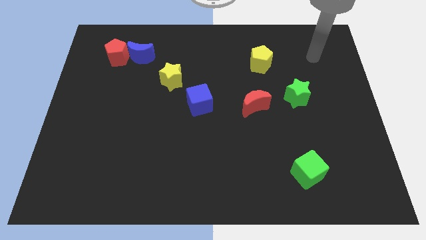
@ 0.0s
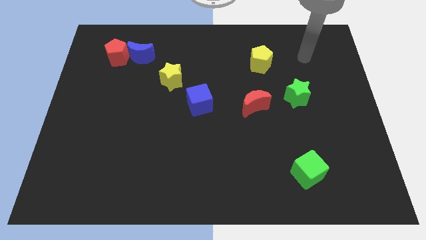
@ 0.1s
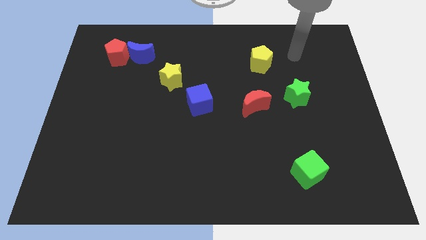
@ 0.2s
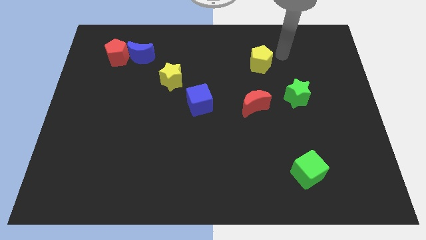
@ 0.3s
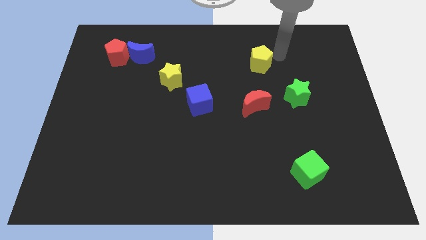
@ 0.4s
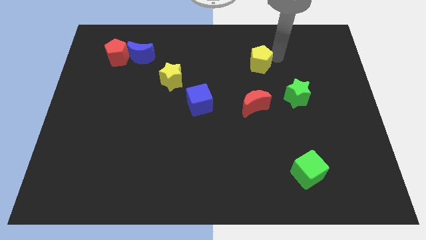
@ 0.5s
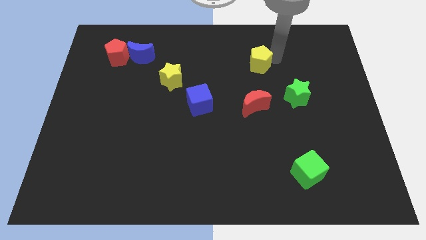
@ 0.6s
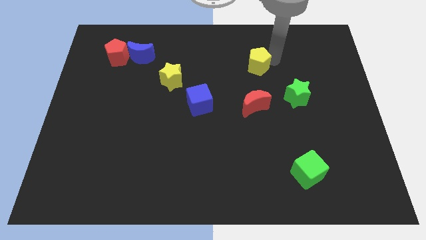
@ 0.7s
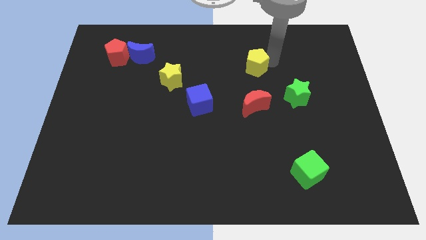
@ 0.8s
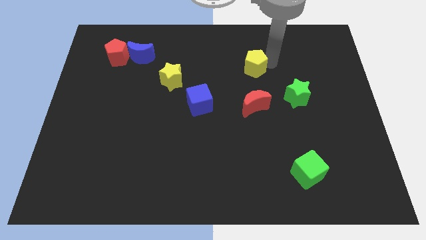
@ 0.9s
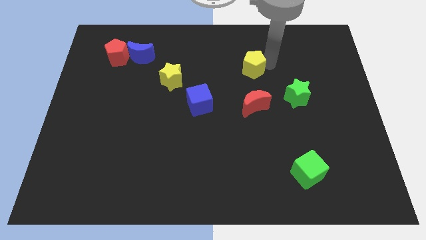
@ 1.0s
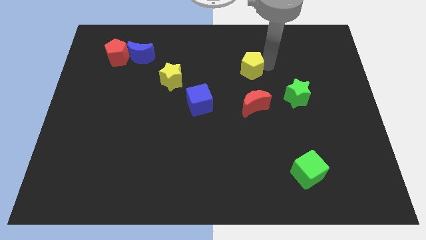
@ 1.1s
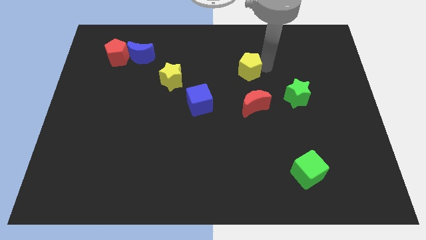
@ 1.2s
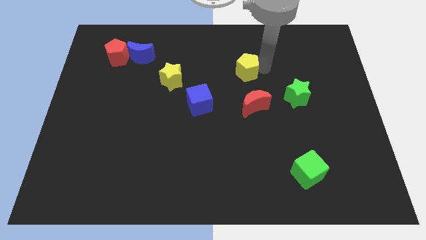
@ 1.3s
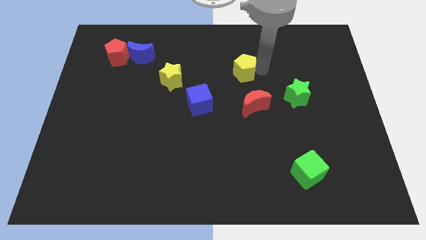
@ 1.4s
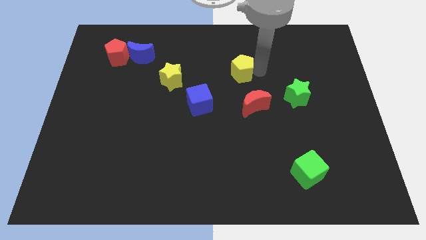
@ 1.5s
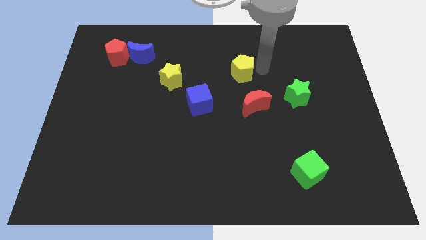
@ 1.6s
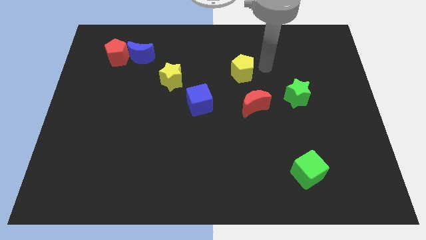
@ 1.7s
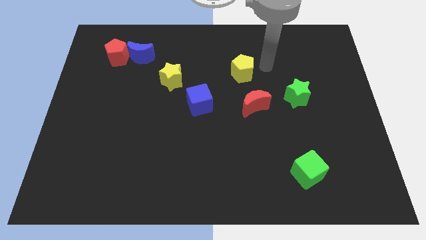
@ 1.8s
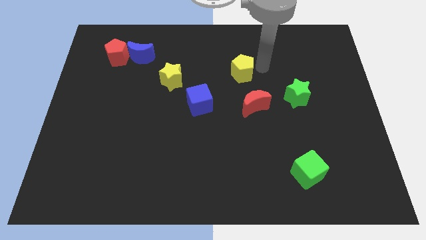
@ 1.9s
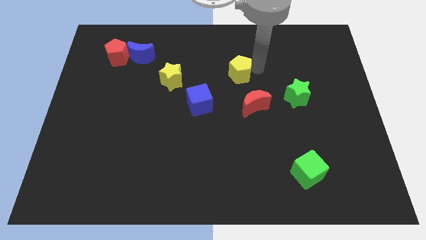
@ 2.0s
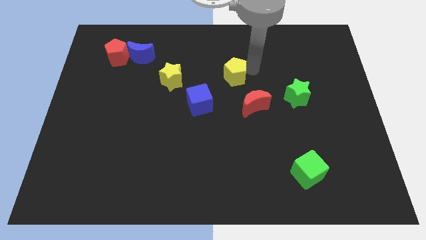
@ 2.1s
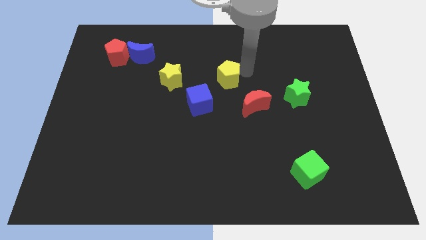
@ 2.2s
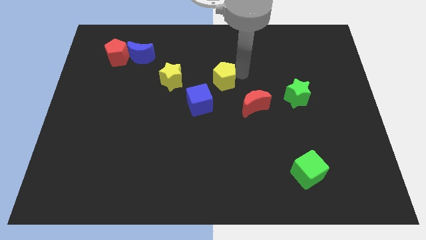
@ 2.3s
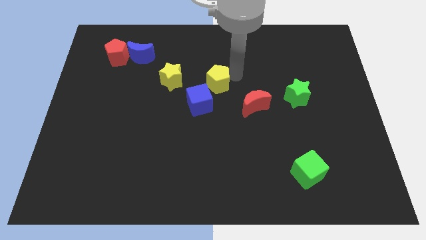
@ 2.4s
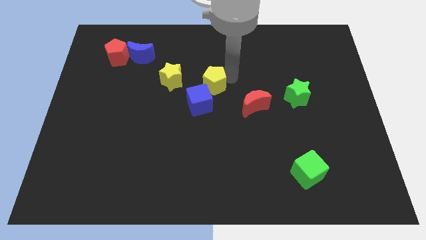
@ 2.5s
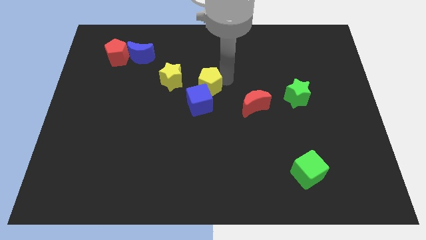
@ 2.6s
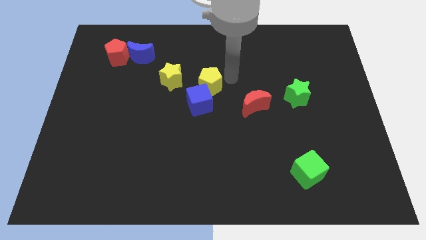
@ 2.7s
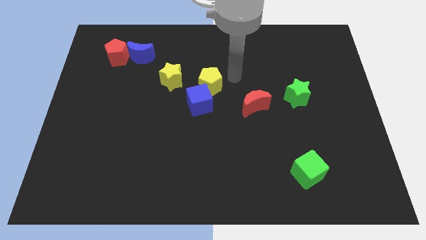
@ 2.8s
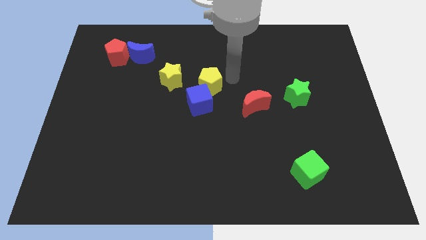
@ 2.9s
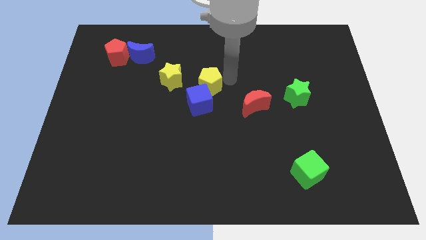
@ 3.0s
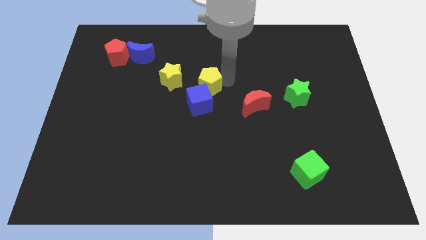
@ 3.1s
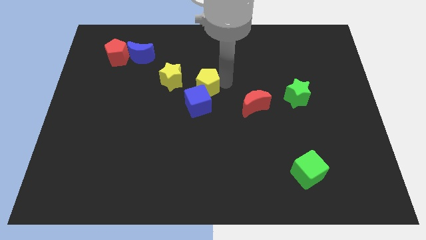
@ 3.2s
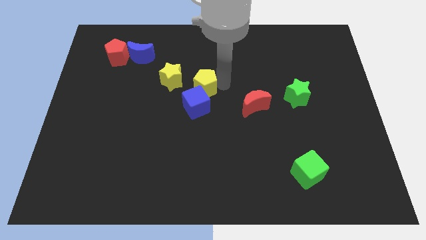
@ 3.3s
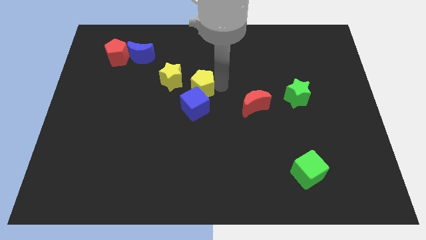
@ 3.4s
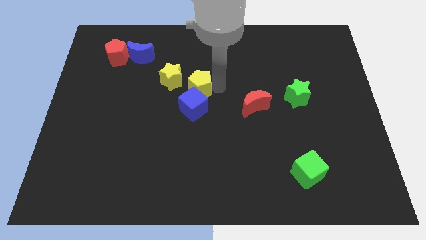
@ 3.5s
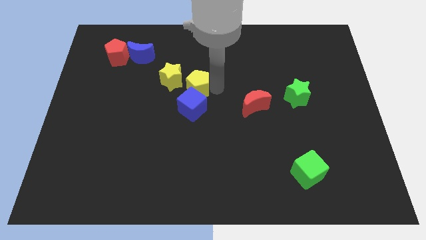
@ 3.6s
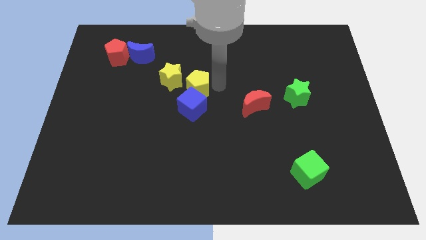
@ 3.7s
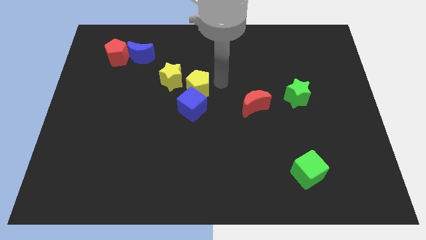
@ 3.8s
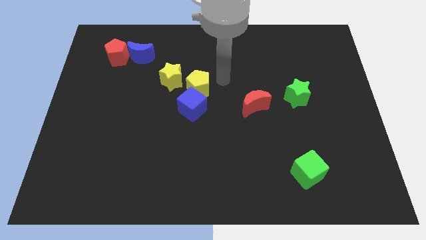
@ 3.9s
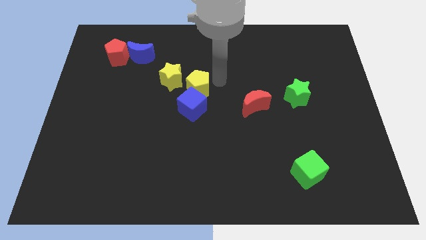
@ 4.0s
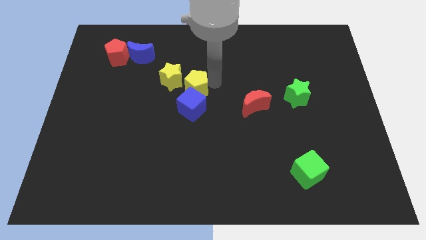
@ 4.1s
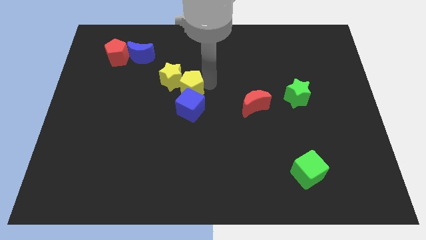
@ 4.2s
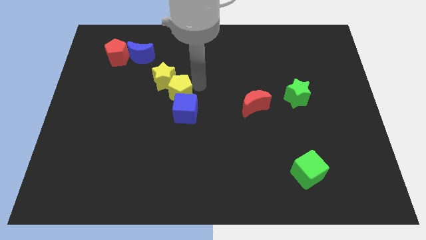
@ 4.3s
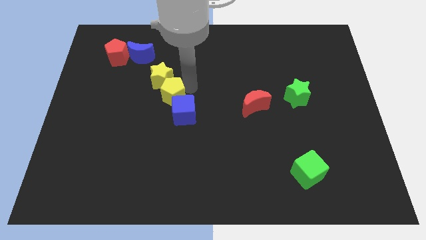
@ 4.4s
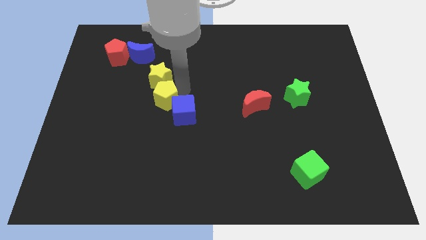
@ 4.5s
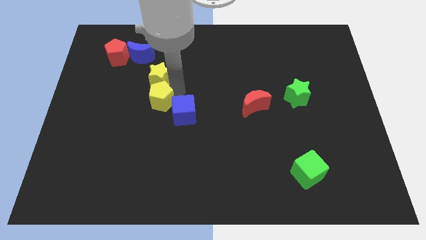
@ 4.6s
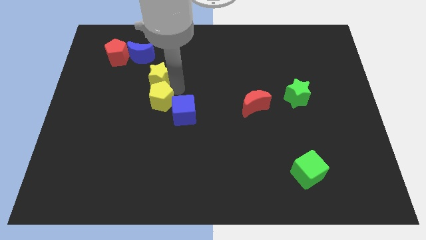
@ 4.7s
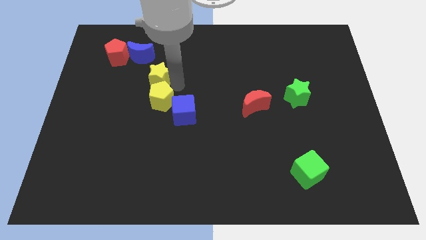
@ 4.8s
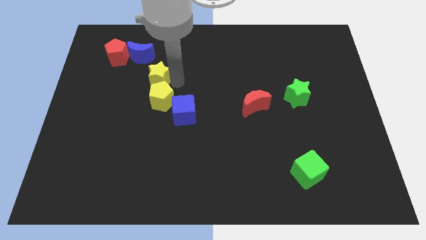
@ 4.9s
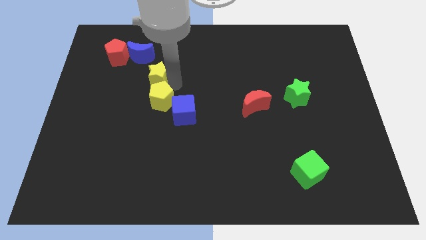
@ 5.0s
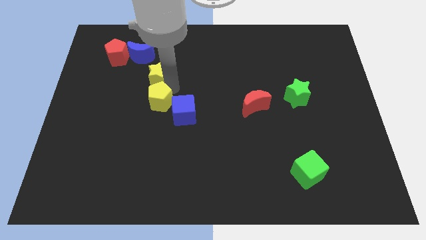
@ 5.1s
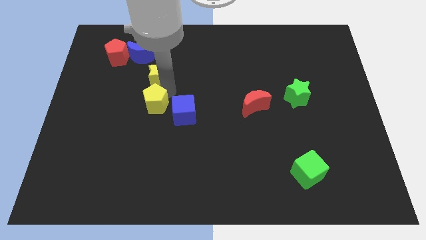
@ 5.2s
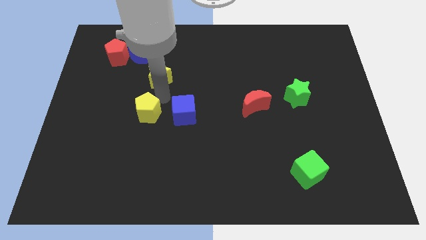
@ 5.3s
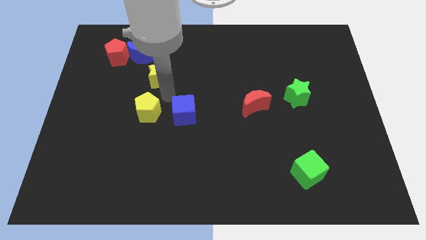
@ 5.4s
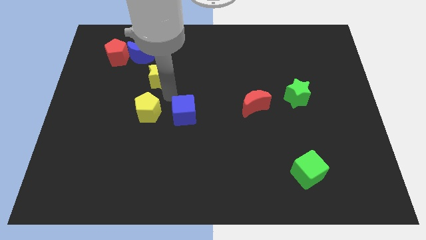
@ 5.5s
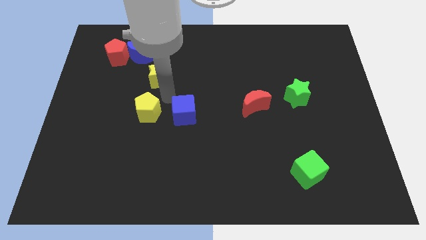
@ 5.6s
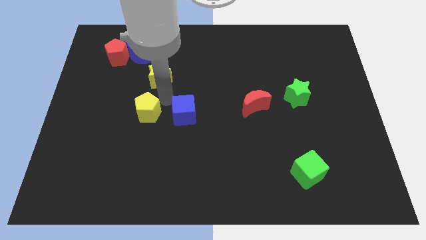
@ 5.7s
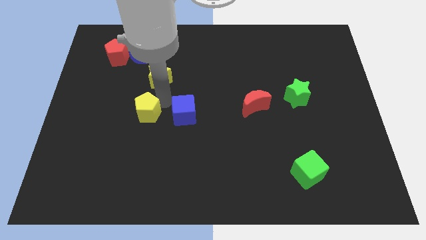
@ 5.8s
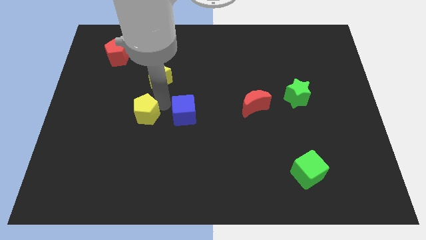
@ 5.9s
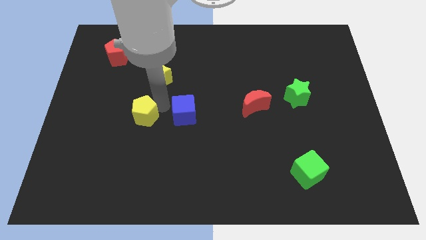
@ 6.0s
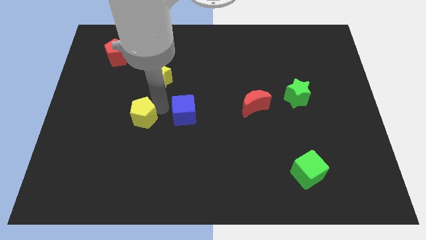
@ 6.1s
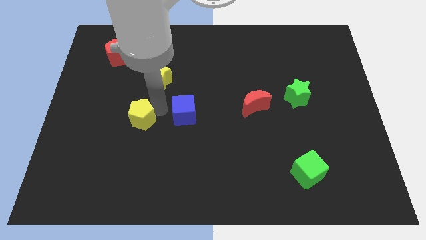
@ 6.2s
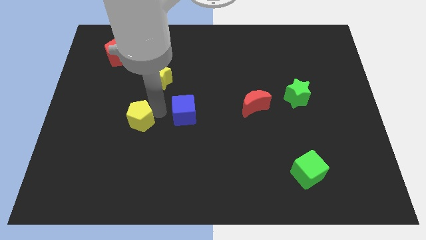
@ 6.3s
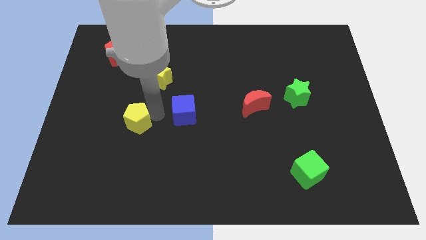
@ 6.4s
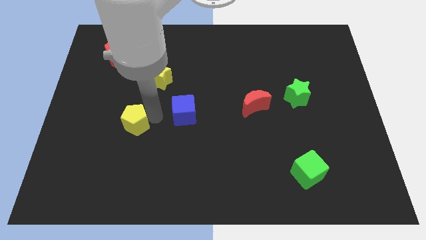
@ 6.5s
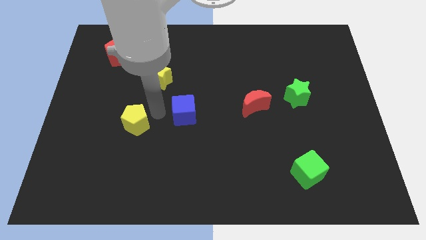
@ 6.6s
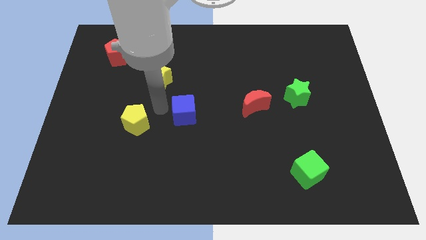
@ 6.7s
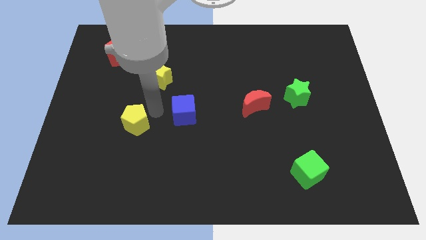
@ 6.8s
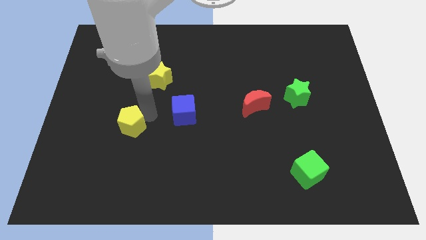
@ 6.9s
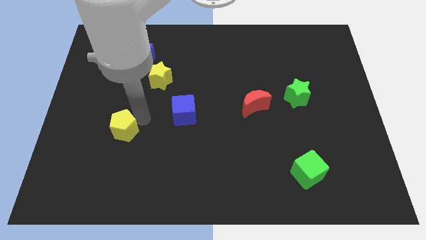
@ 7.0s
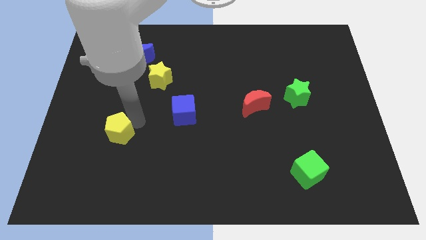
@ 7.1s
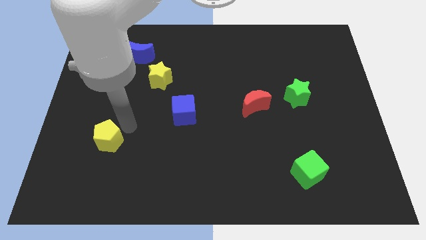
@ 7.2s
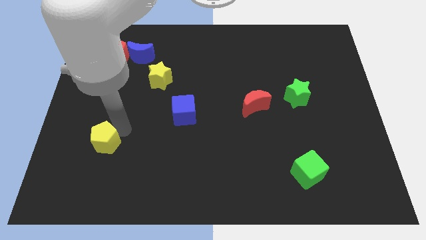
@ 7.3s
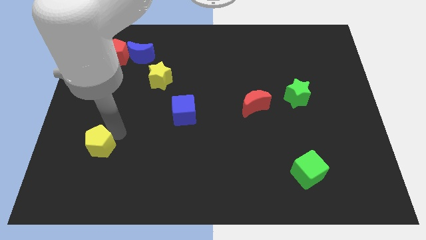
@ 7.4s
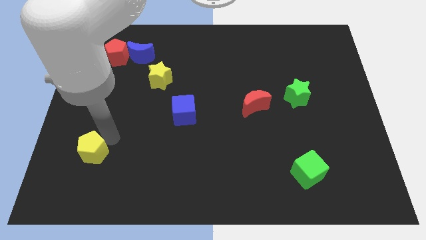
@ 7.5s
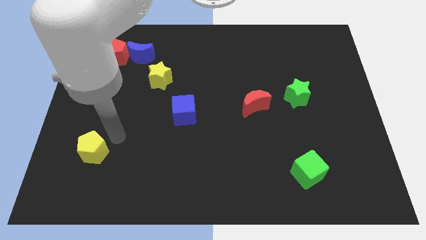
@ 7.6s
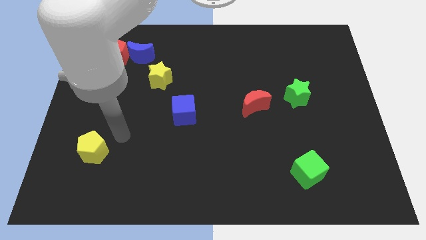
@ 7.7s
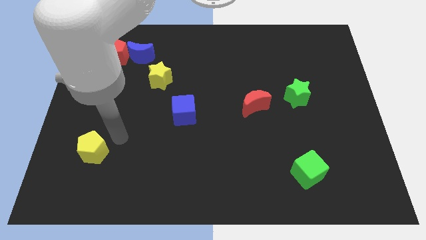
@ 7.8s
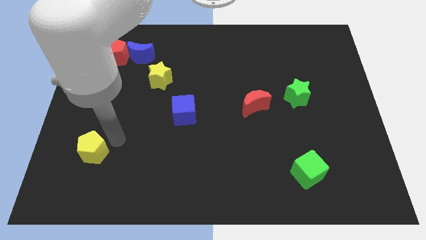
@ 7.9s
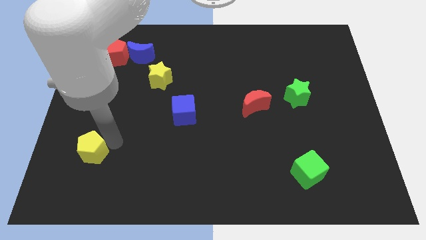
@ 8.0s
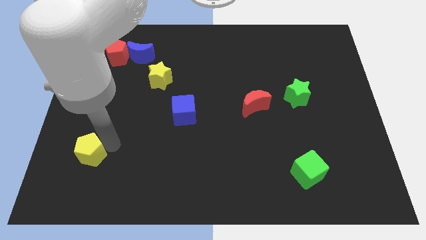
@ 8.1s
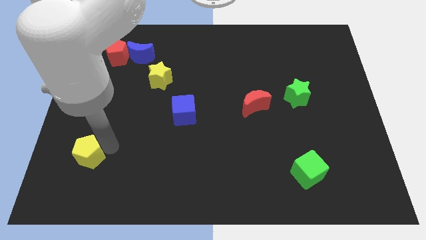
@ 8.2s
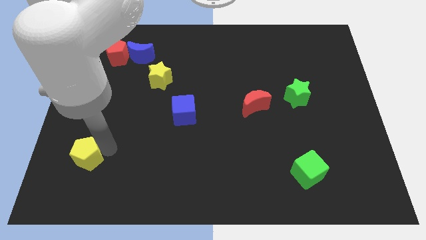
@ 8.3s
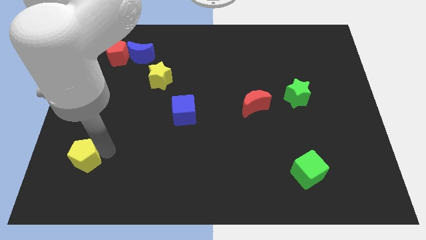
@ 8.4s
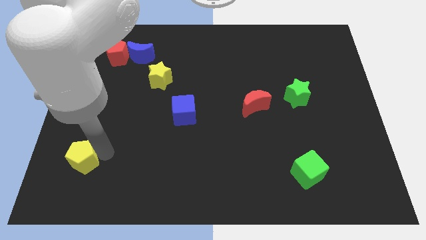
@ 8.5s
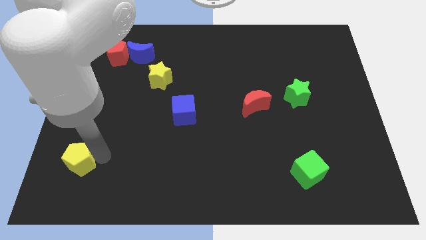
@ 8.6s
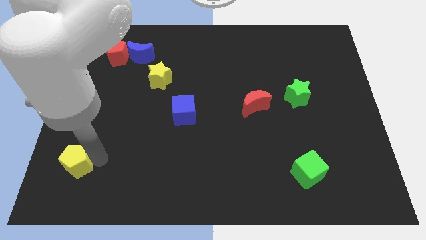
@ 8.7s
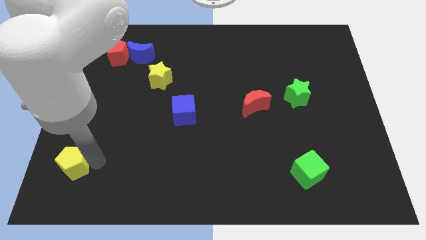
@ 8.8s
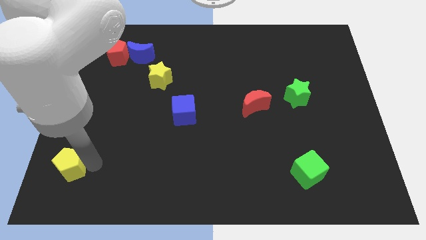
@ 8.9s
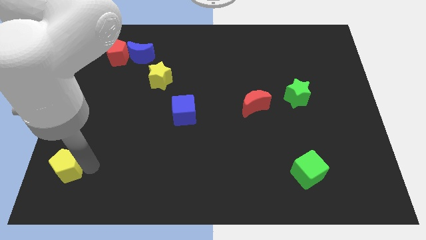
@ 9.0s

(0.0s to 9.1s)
push the yellow pentagon to the bottom left
